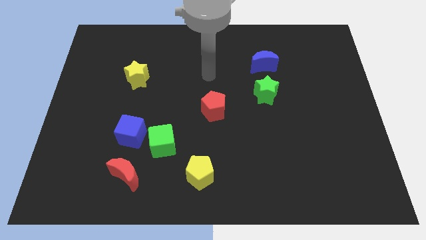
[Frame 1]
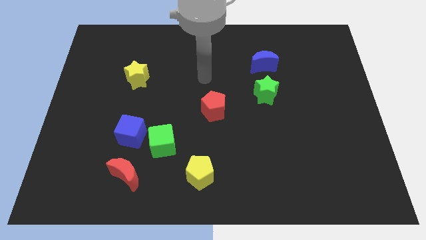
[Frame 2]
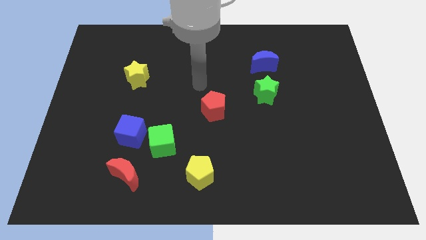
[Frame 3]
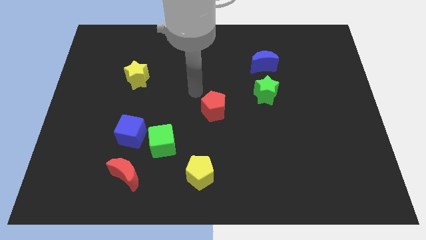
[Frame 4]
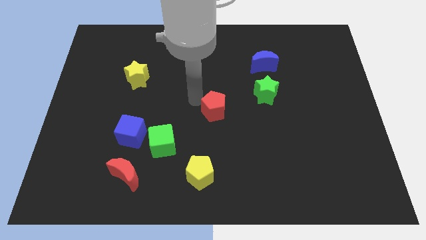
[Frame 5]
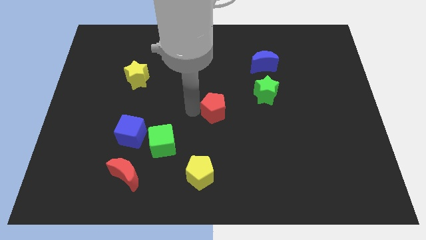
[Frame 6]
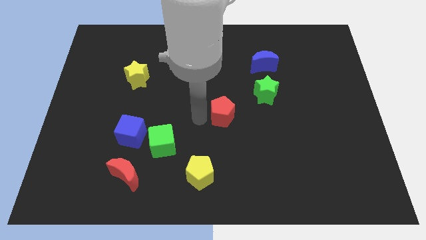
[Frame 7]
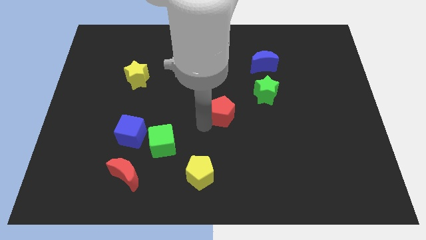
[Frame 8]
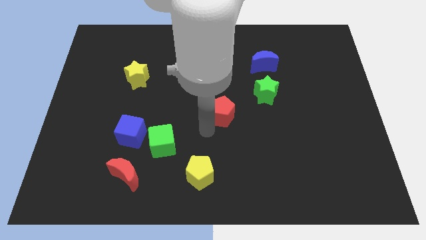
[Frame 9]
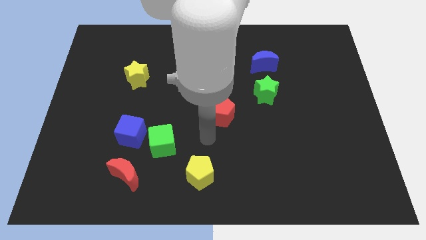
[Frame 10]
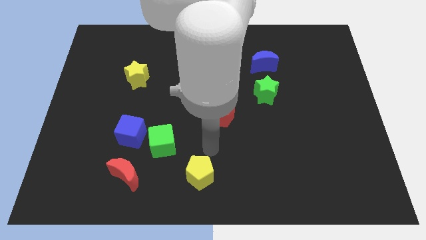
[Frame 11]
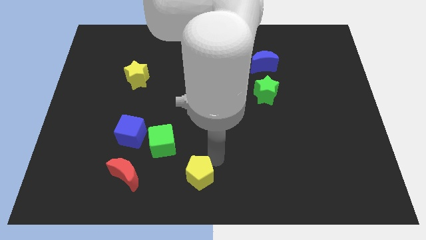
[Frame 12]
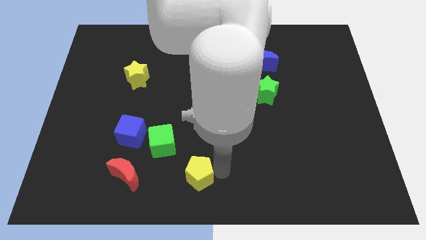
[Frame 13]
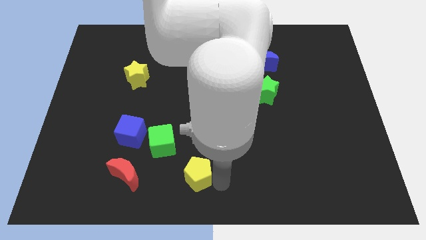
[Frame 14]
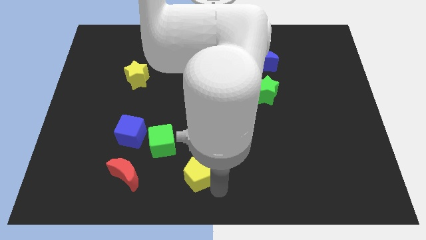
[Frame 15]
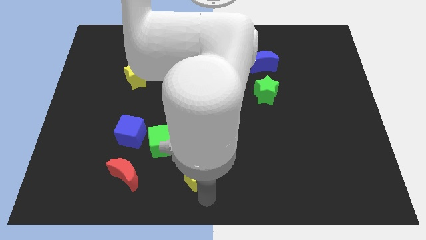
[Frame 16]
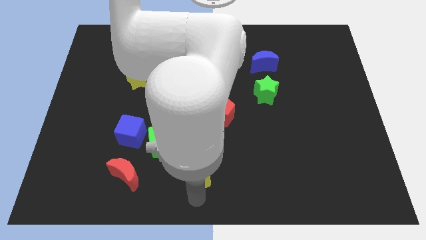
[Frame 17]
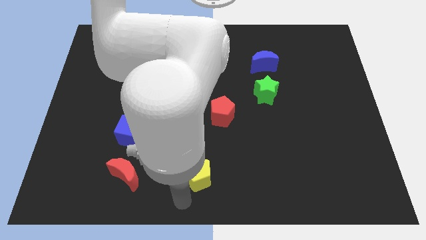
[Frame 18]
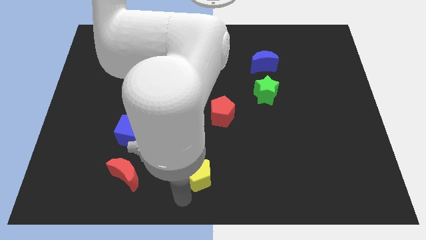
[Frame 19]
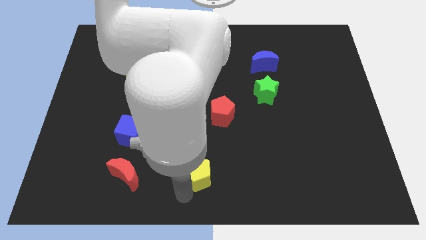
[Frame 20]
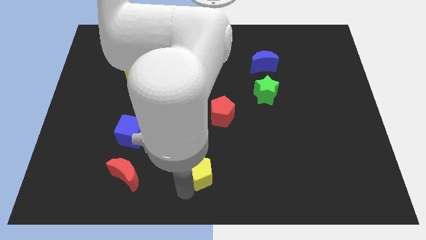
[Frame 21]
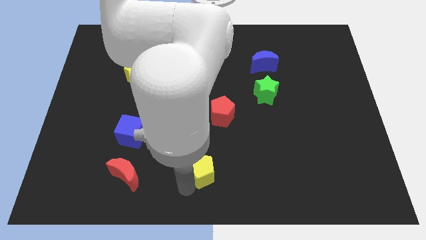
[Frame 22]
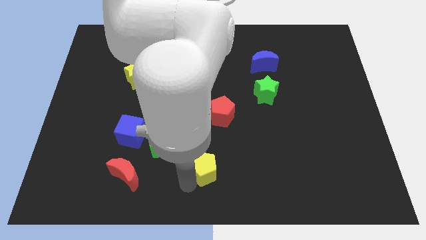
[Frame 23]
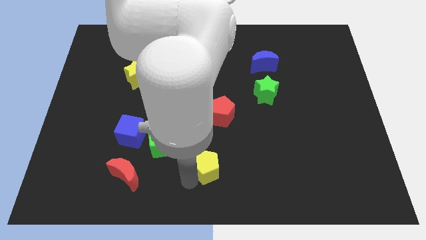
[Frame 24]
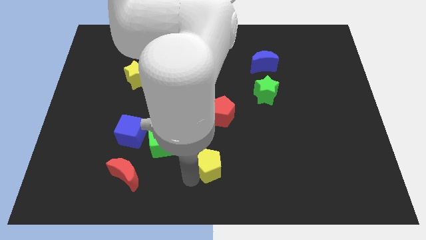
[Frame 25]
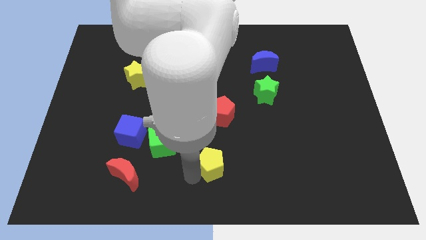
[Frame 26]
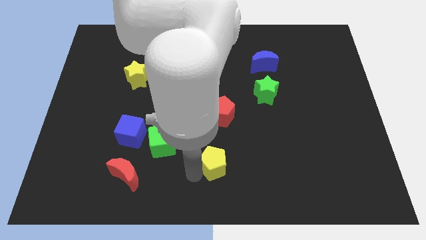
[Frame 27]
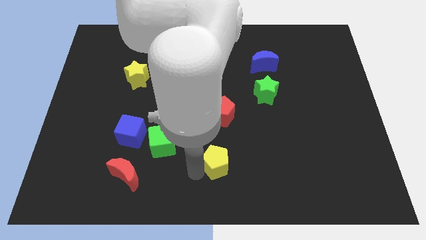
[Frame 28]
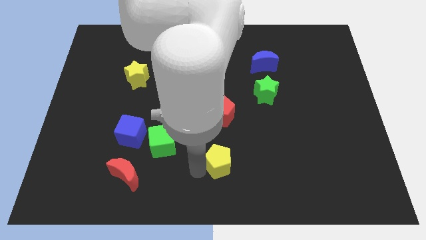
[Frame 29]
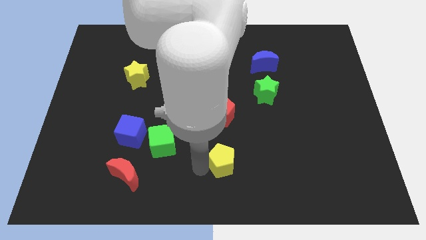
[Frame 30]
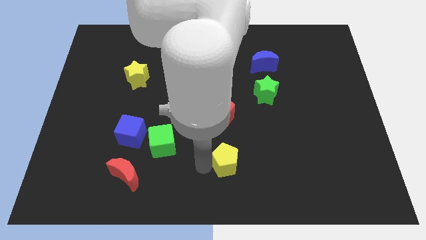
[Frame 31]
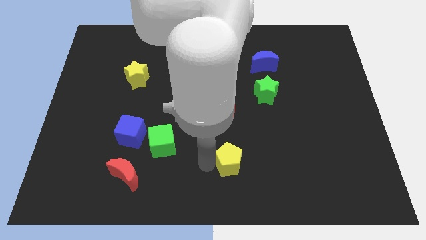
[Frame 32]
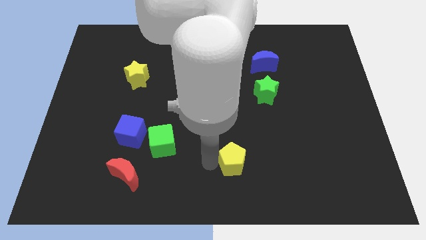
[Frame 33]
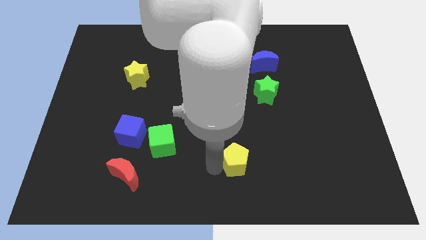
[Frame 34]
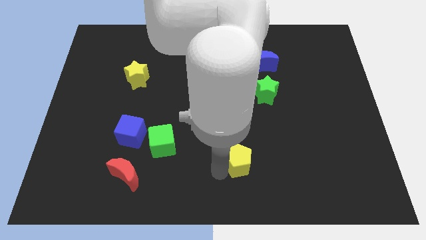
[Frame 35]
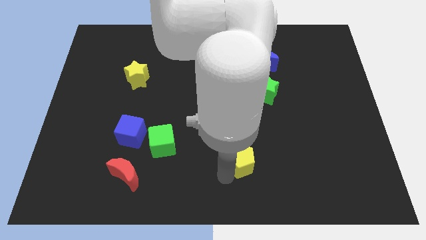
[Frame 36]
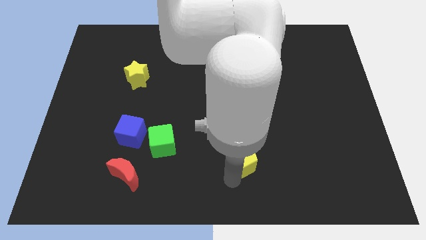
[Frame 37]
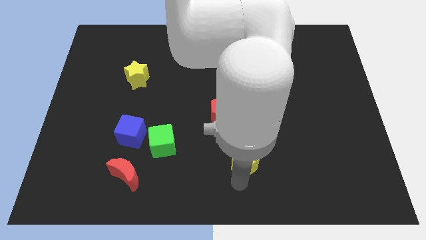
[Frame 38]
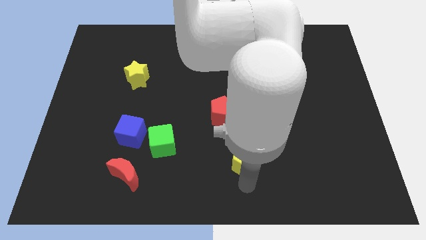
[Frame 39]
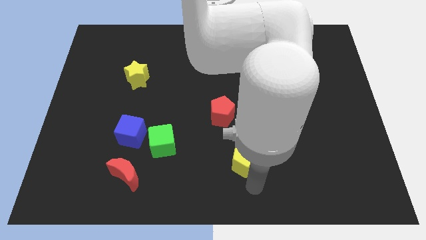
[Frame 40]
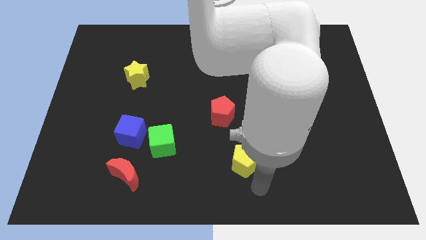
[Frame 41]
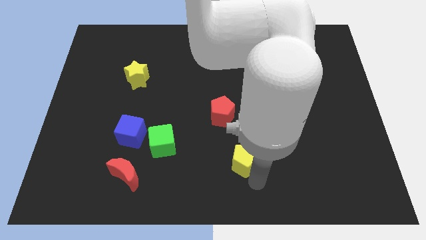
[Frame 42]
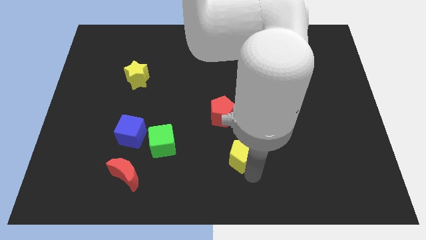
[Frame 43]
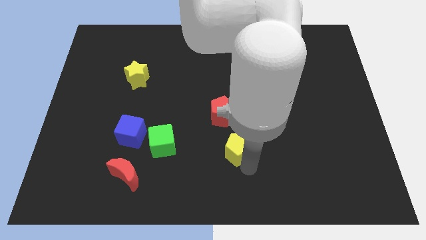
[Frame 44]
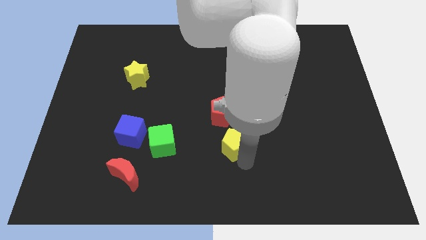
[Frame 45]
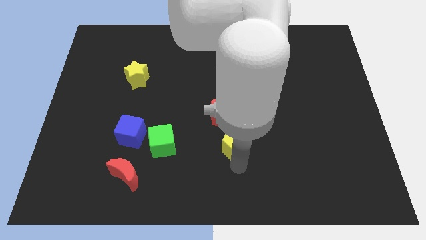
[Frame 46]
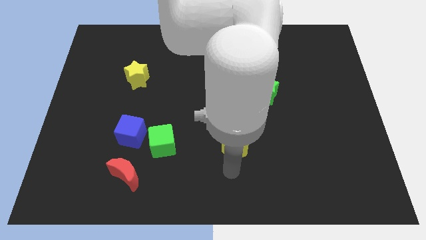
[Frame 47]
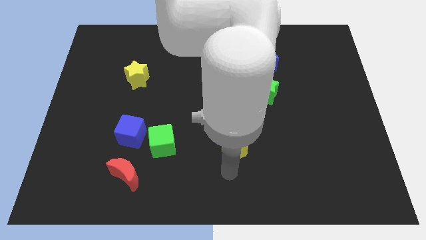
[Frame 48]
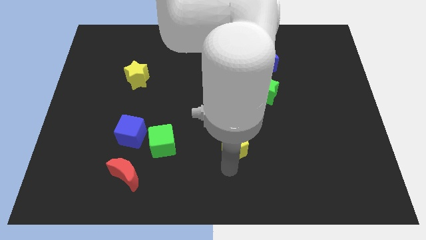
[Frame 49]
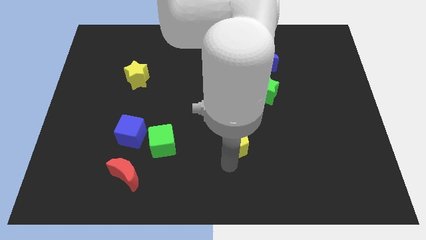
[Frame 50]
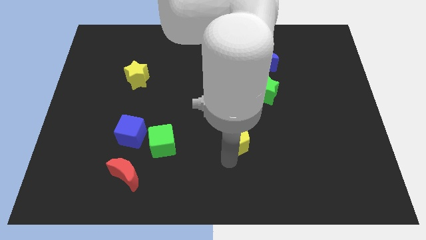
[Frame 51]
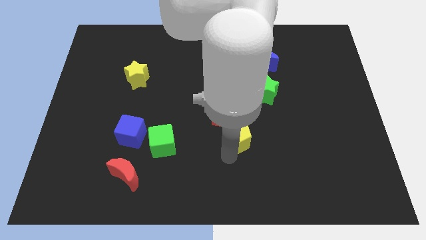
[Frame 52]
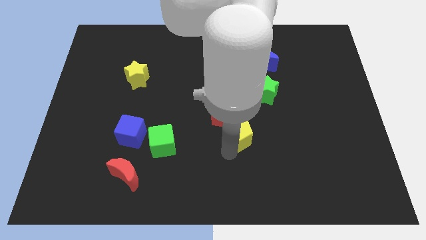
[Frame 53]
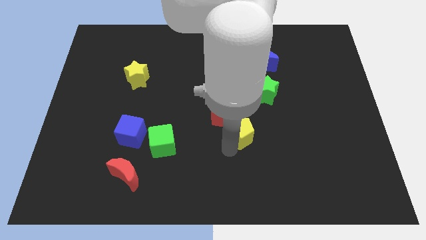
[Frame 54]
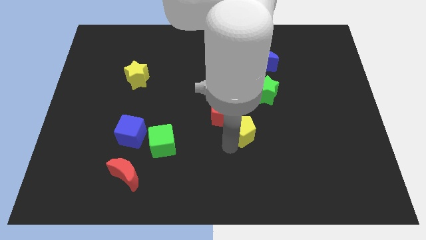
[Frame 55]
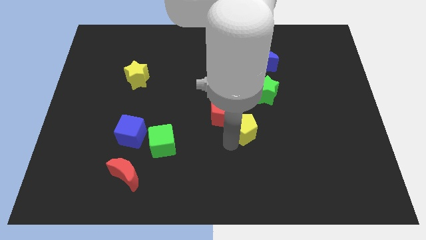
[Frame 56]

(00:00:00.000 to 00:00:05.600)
move the yellow pentagon diagonally down and to the left of the green star

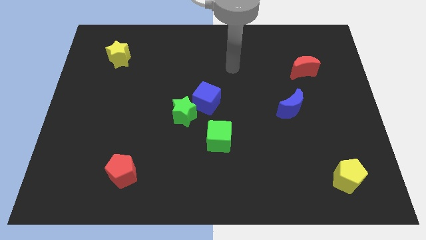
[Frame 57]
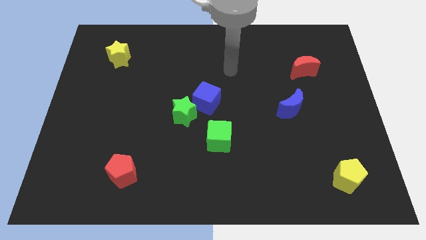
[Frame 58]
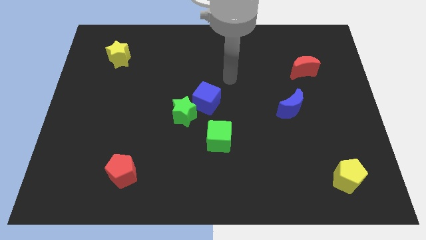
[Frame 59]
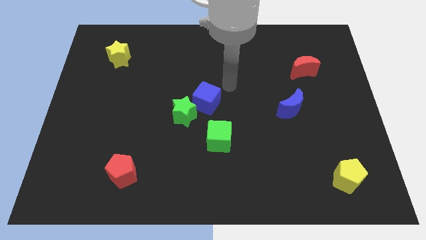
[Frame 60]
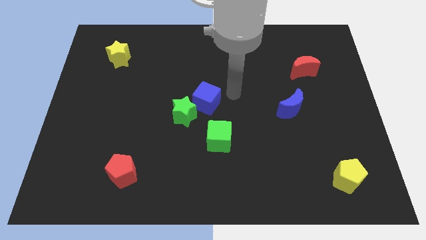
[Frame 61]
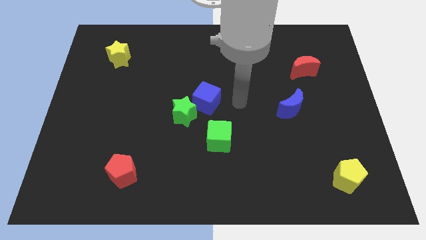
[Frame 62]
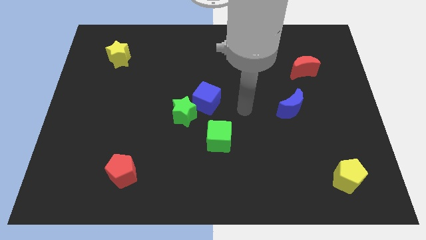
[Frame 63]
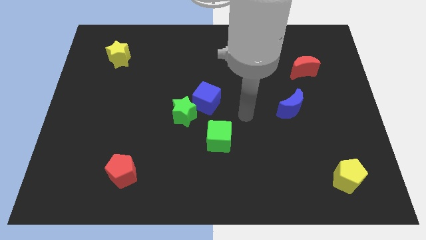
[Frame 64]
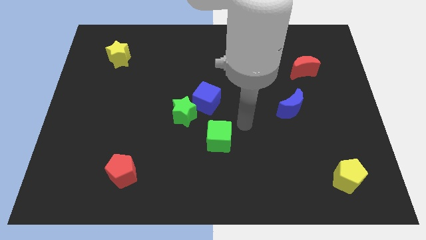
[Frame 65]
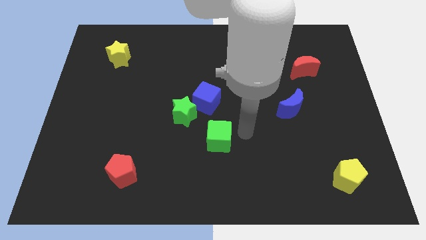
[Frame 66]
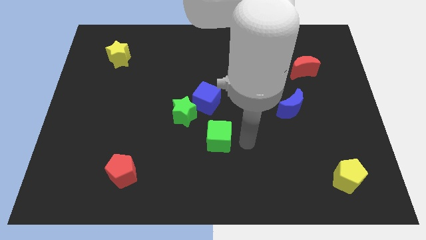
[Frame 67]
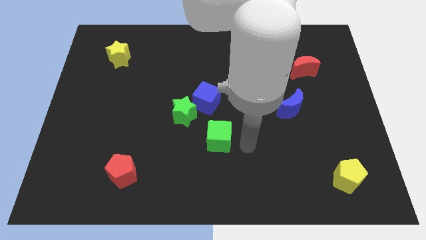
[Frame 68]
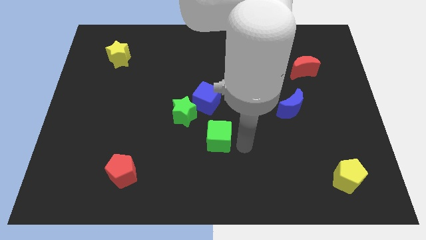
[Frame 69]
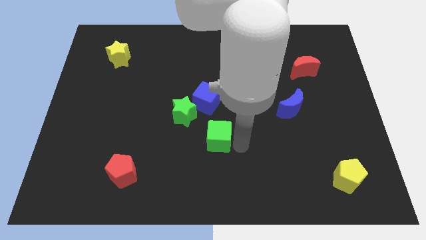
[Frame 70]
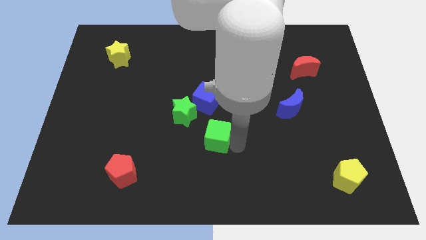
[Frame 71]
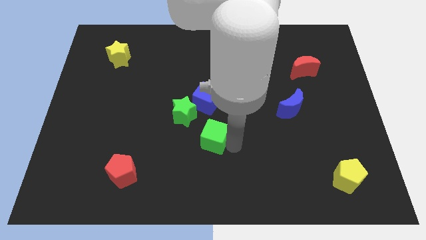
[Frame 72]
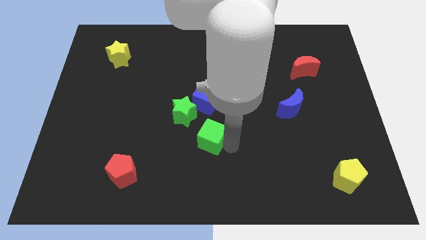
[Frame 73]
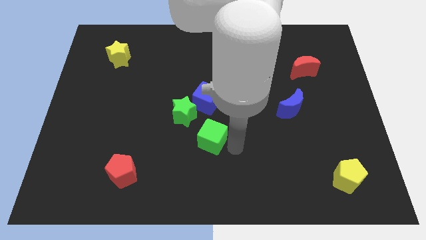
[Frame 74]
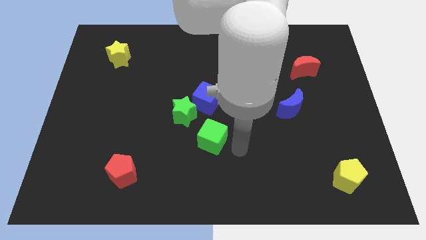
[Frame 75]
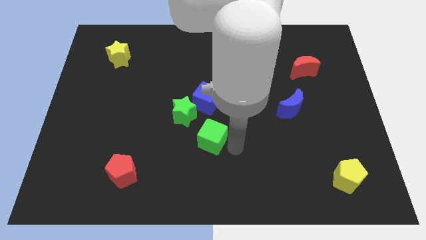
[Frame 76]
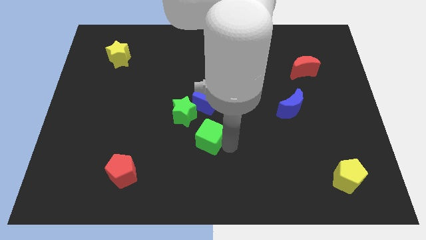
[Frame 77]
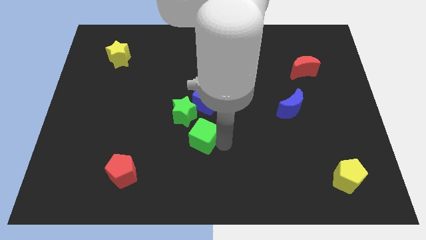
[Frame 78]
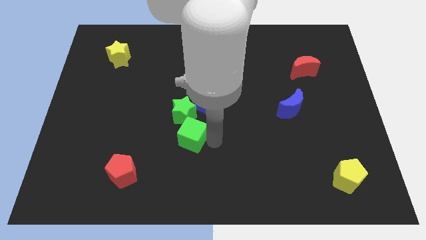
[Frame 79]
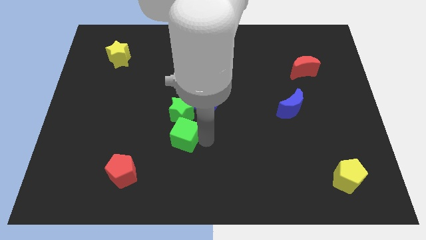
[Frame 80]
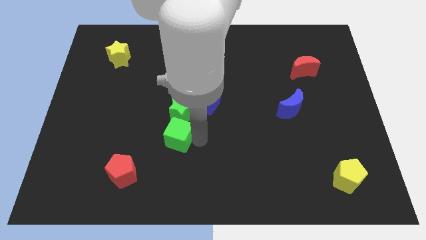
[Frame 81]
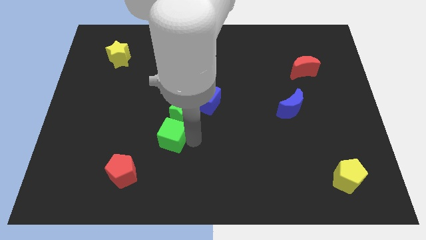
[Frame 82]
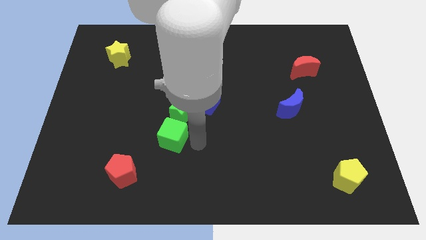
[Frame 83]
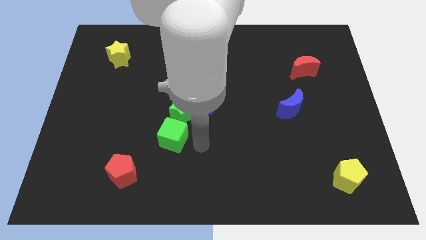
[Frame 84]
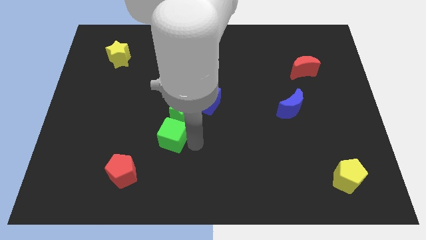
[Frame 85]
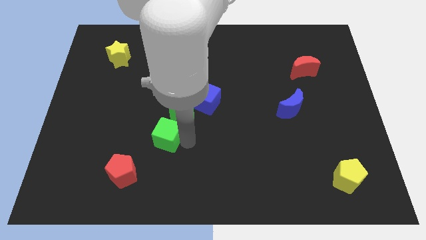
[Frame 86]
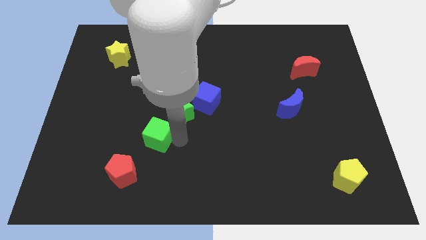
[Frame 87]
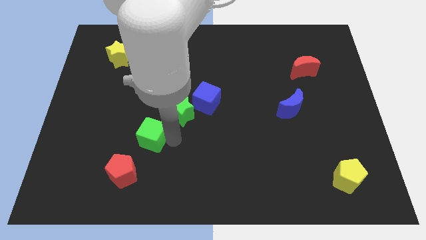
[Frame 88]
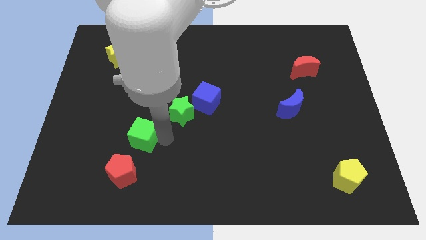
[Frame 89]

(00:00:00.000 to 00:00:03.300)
move the green cube to the top of the red pentagon
